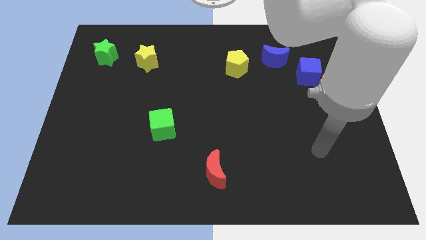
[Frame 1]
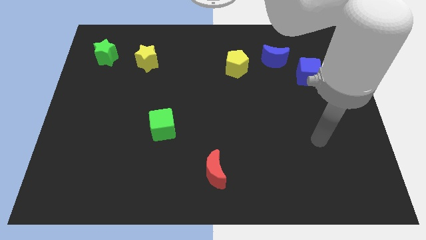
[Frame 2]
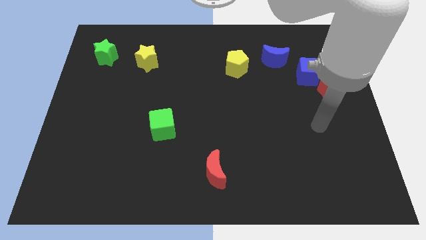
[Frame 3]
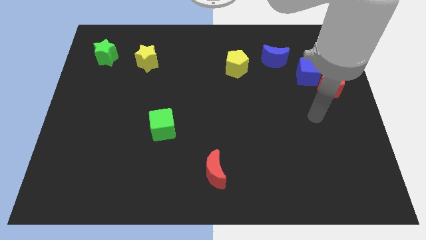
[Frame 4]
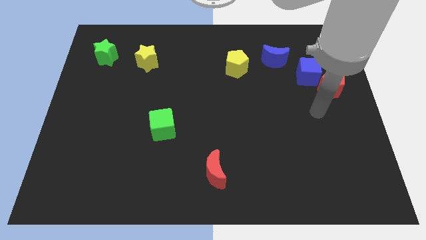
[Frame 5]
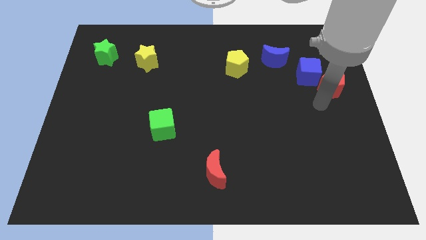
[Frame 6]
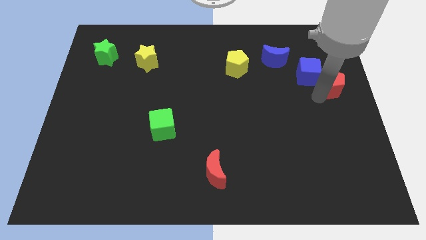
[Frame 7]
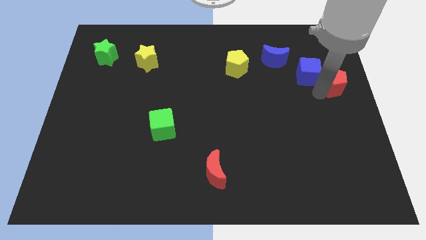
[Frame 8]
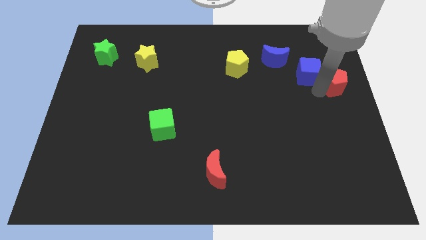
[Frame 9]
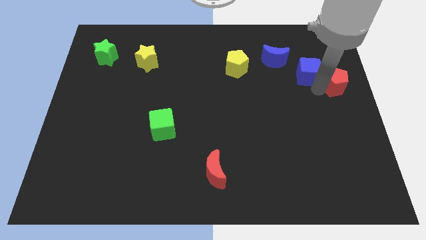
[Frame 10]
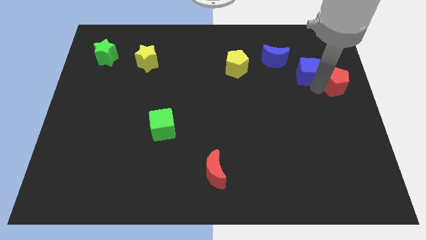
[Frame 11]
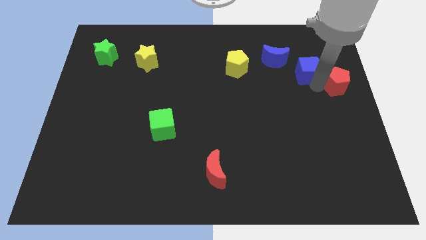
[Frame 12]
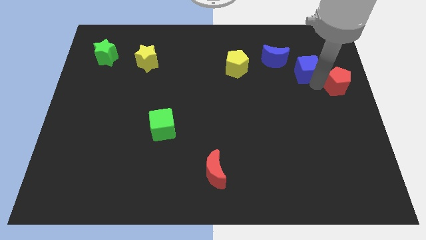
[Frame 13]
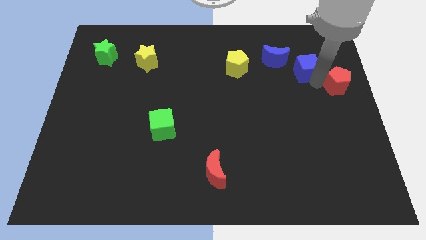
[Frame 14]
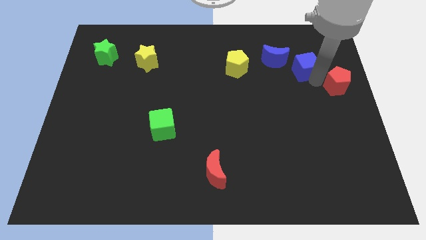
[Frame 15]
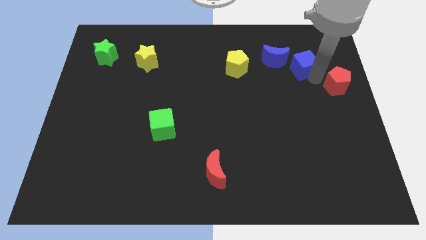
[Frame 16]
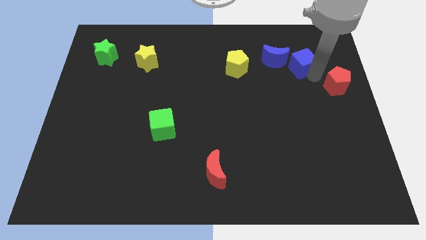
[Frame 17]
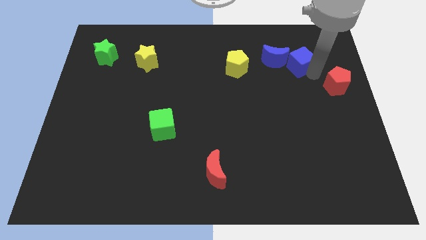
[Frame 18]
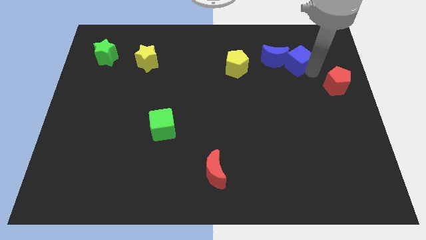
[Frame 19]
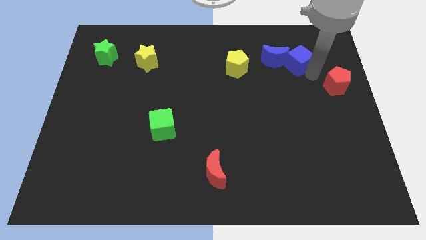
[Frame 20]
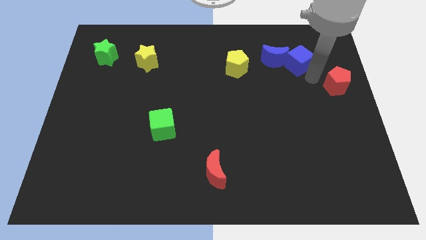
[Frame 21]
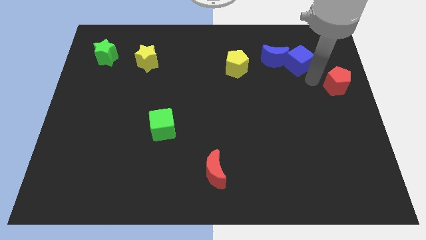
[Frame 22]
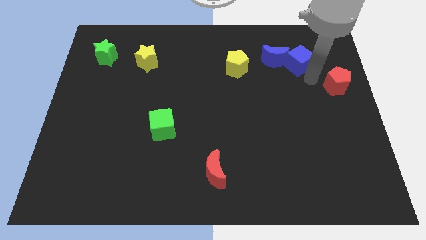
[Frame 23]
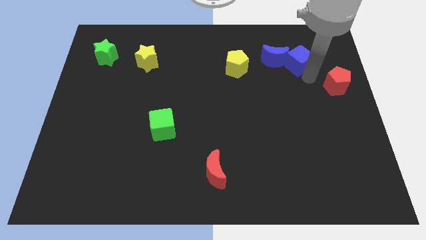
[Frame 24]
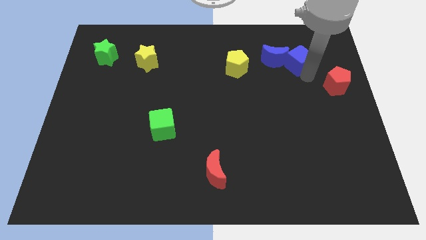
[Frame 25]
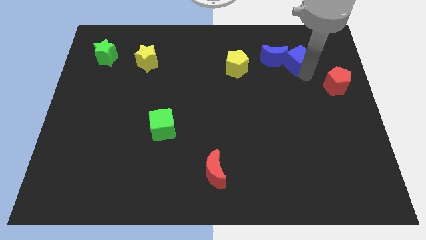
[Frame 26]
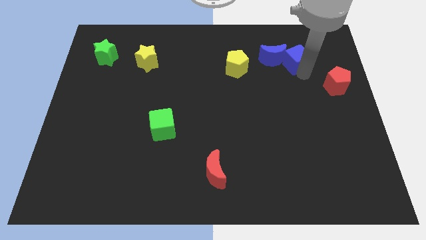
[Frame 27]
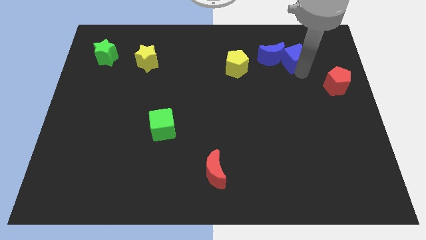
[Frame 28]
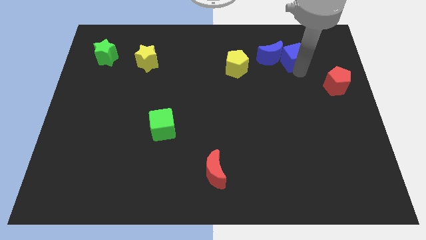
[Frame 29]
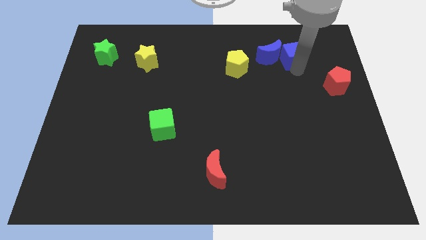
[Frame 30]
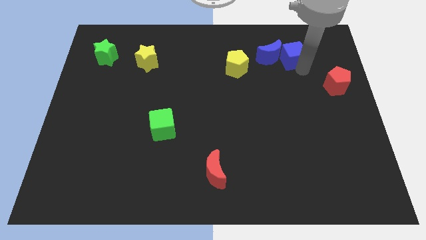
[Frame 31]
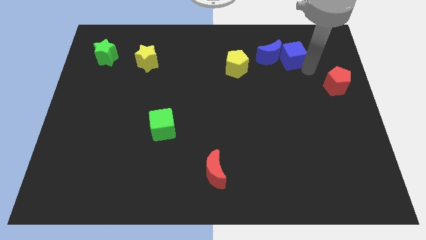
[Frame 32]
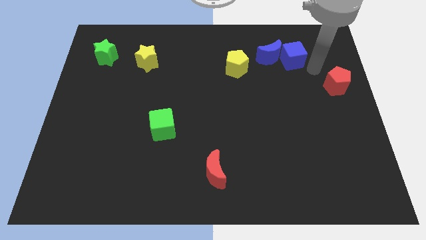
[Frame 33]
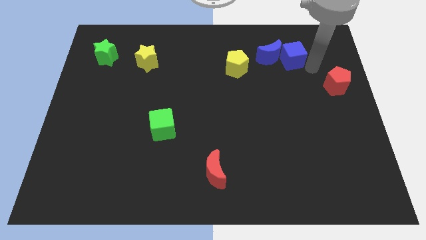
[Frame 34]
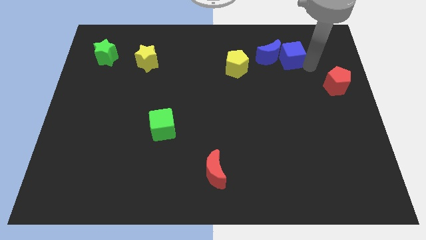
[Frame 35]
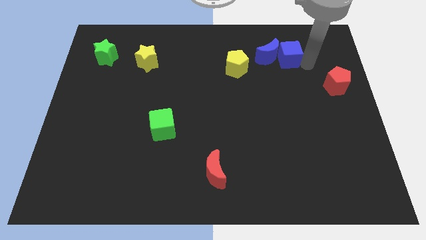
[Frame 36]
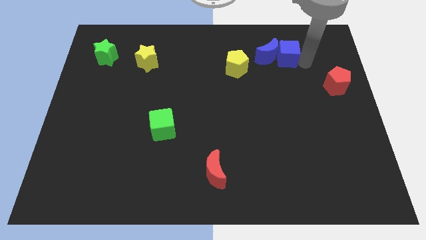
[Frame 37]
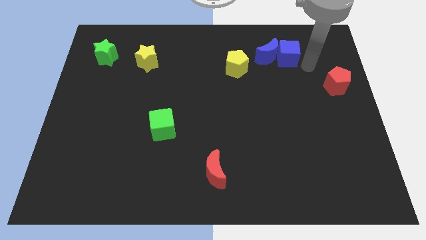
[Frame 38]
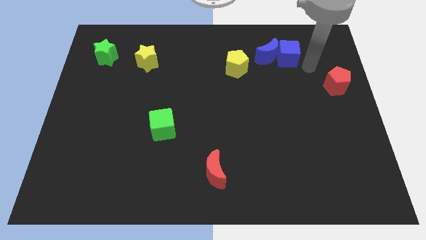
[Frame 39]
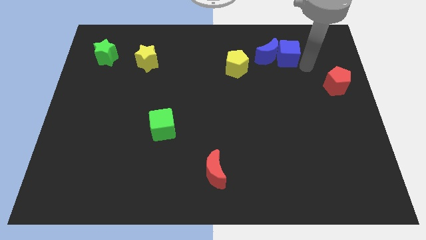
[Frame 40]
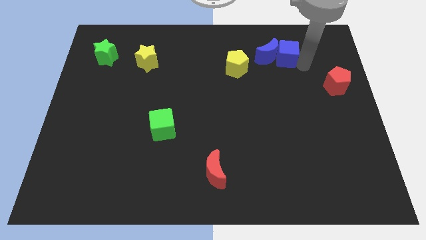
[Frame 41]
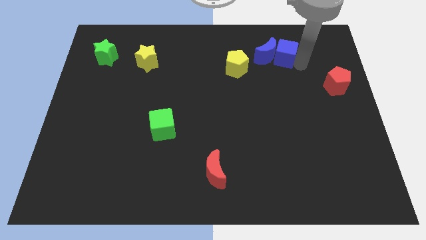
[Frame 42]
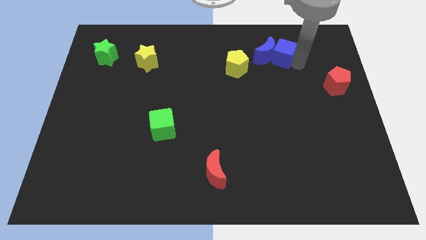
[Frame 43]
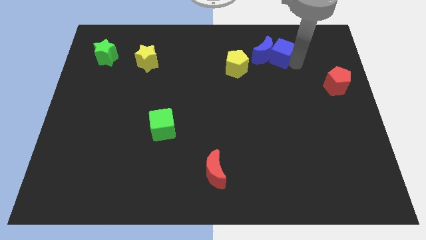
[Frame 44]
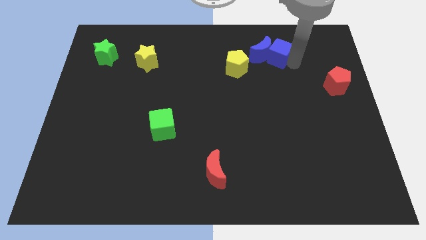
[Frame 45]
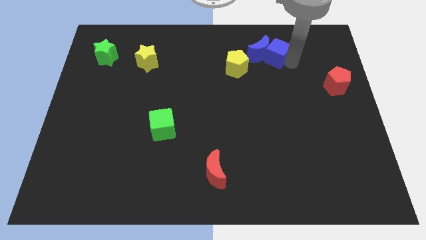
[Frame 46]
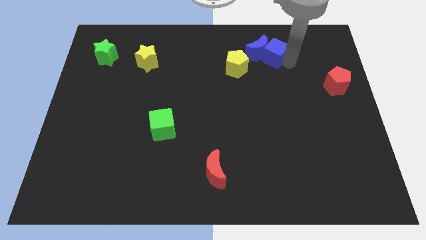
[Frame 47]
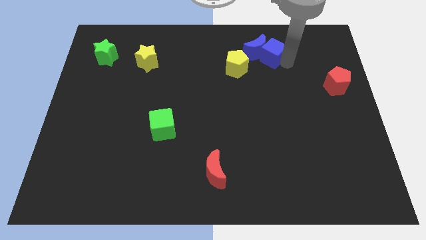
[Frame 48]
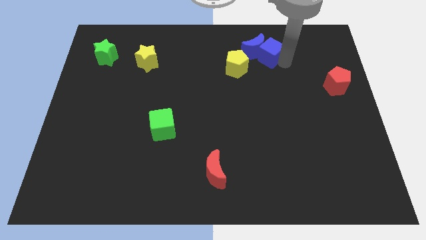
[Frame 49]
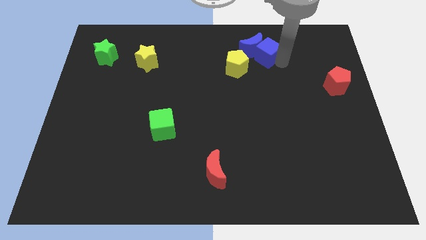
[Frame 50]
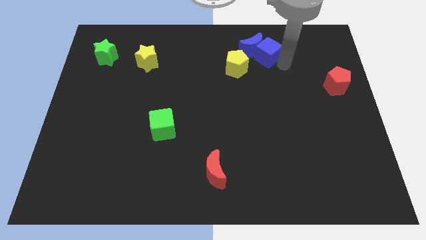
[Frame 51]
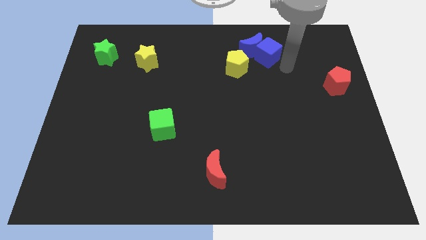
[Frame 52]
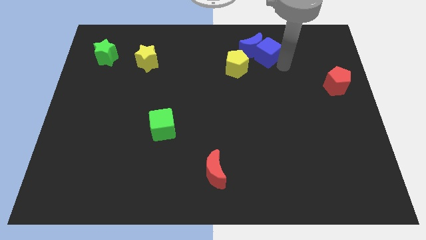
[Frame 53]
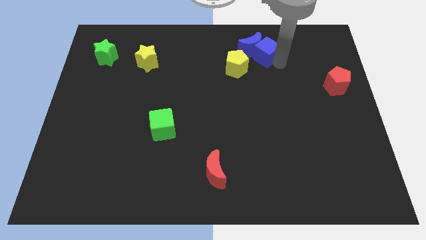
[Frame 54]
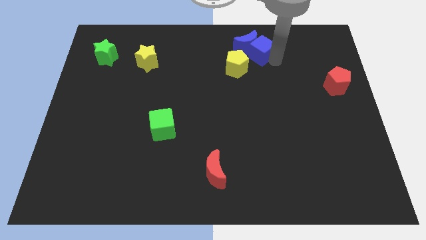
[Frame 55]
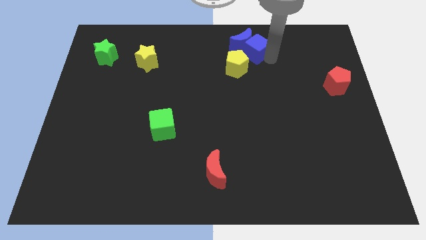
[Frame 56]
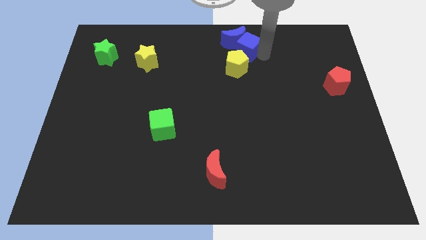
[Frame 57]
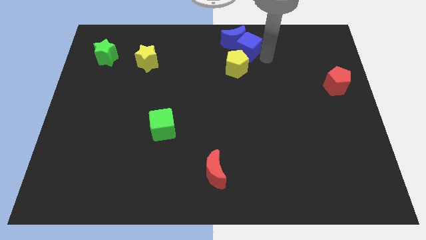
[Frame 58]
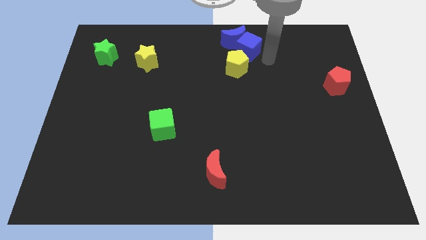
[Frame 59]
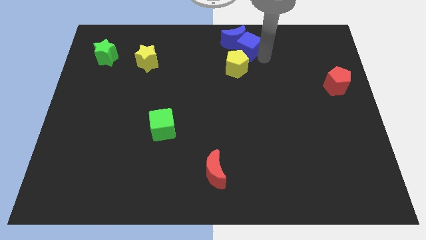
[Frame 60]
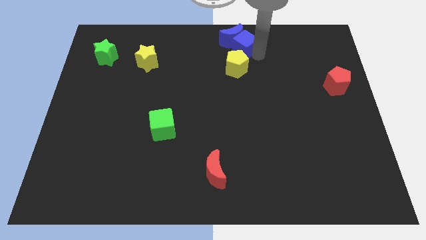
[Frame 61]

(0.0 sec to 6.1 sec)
slide the blue cube to the top
